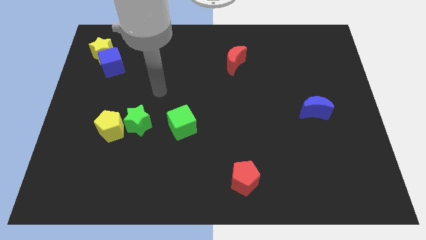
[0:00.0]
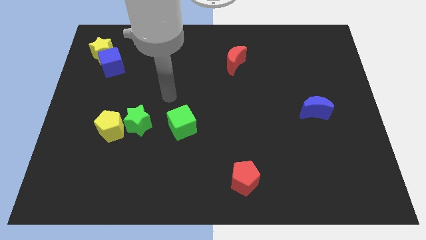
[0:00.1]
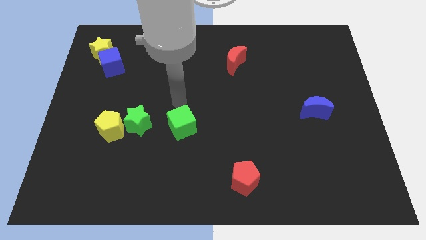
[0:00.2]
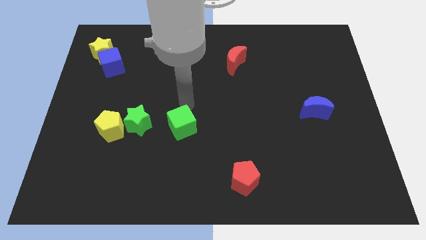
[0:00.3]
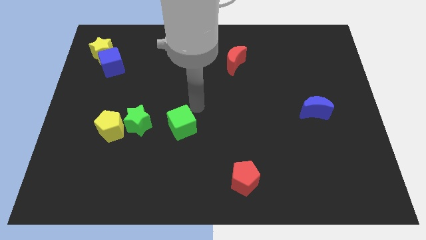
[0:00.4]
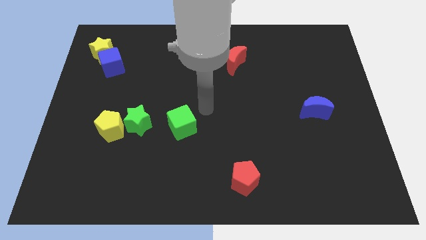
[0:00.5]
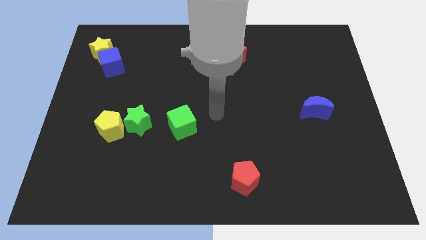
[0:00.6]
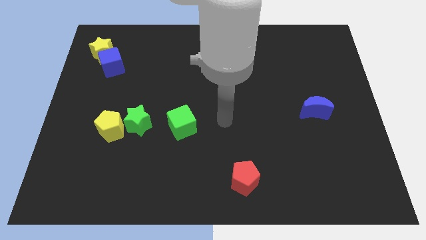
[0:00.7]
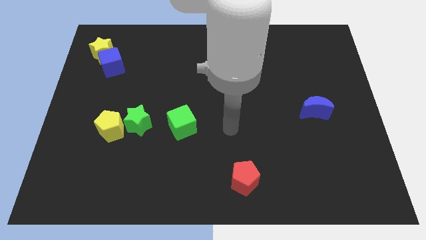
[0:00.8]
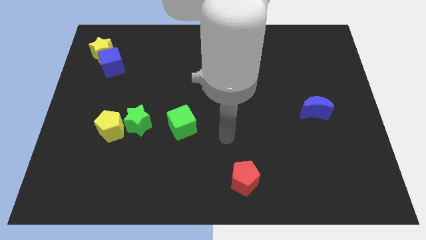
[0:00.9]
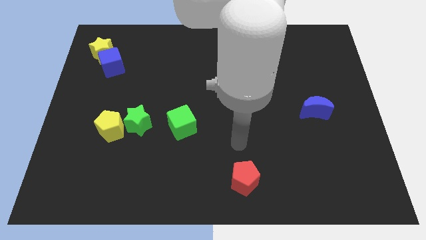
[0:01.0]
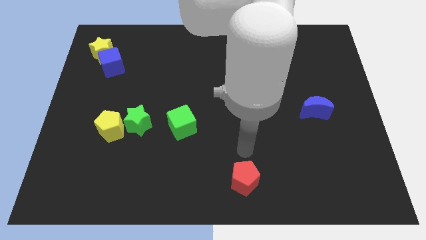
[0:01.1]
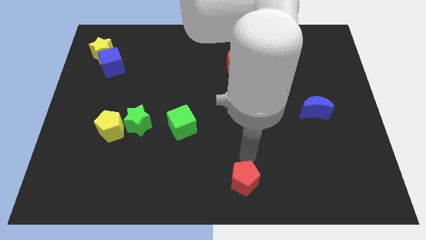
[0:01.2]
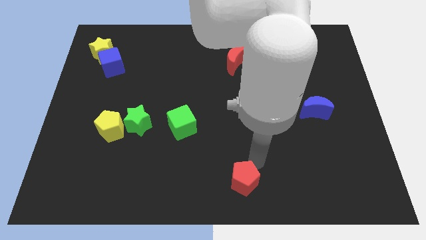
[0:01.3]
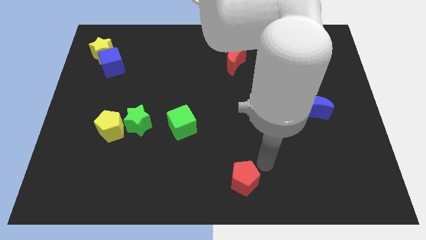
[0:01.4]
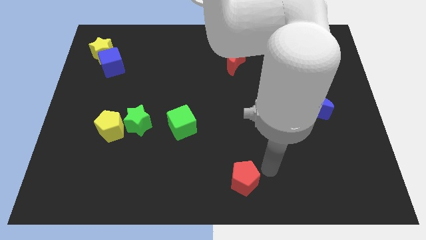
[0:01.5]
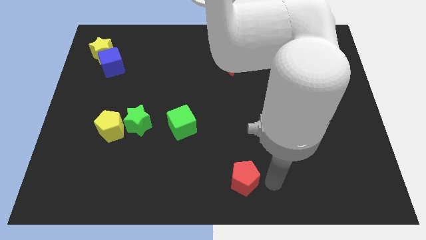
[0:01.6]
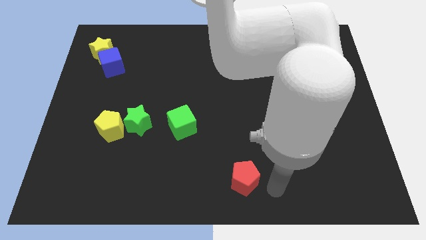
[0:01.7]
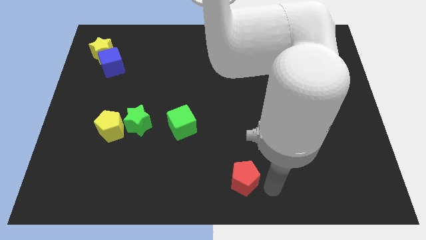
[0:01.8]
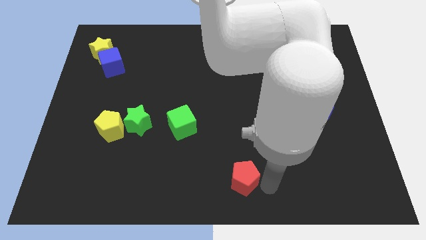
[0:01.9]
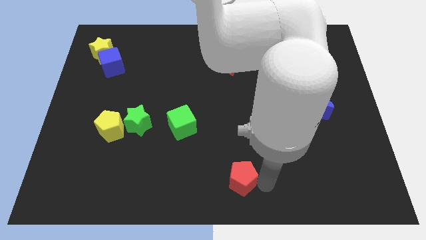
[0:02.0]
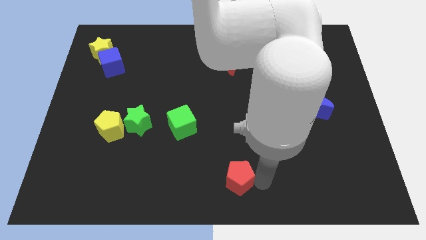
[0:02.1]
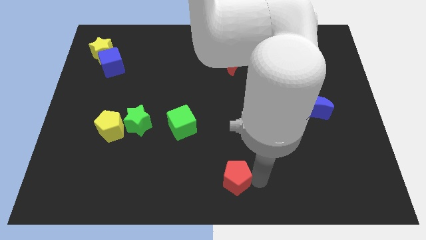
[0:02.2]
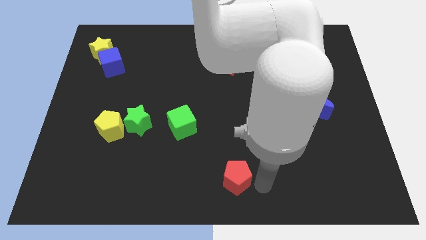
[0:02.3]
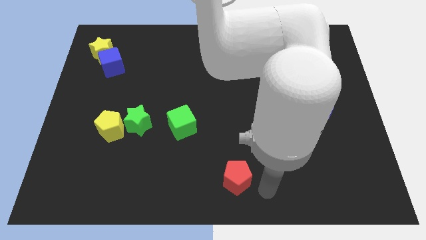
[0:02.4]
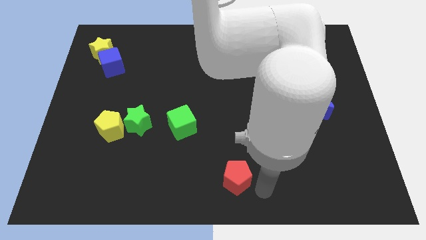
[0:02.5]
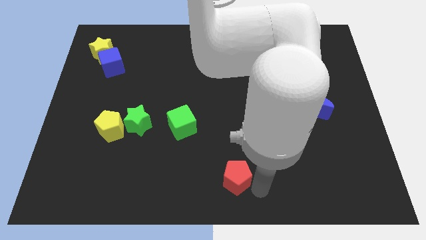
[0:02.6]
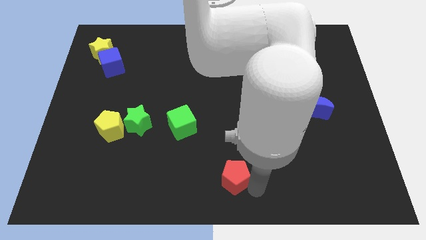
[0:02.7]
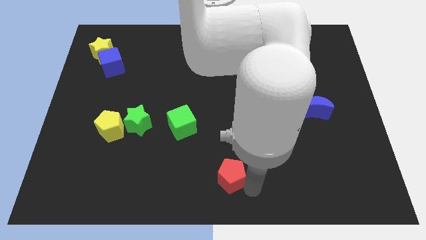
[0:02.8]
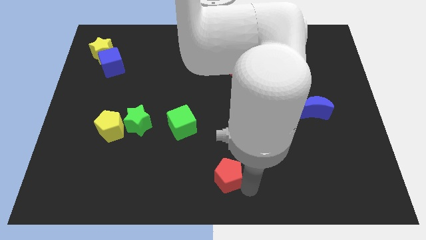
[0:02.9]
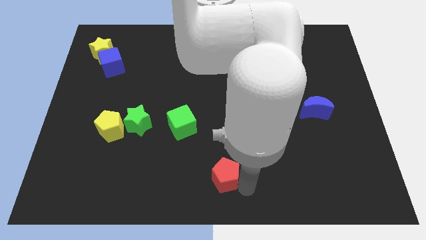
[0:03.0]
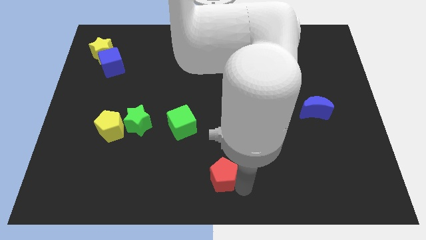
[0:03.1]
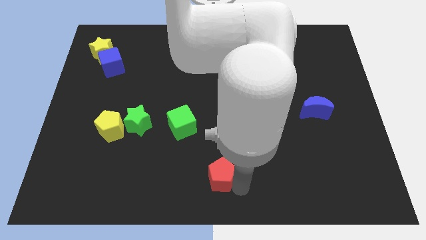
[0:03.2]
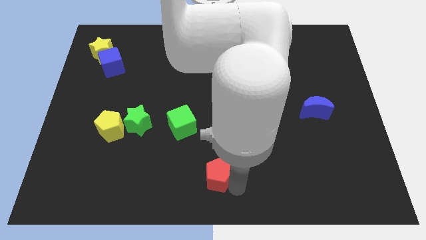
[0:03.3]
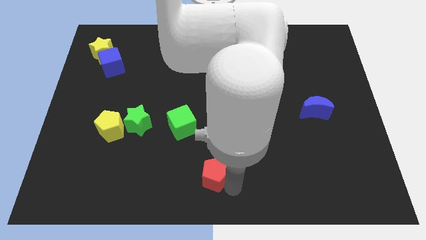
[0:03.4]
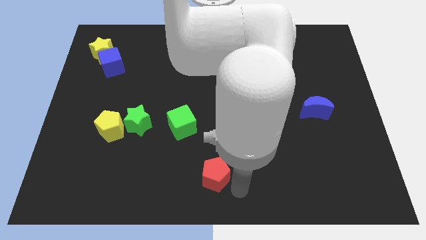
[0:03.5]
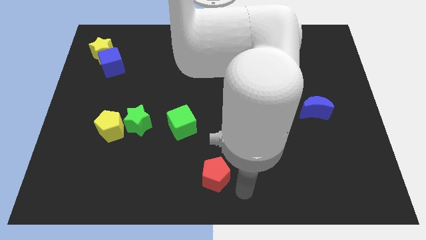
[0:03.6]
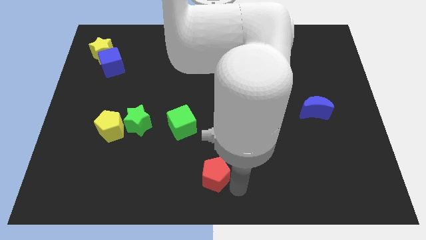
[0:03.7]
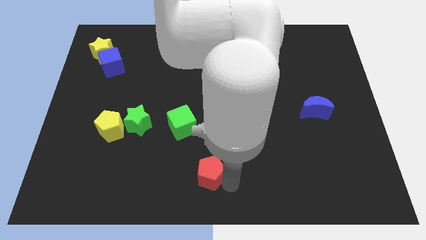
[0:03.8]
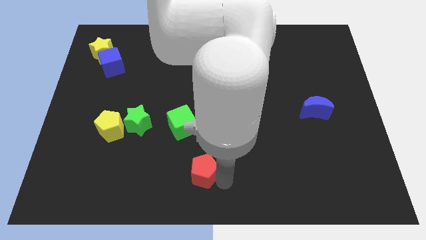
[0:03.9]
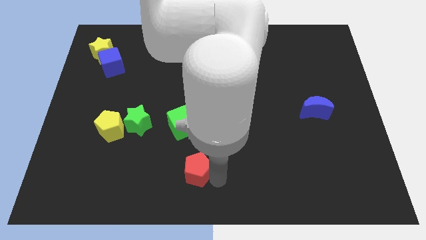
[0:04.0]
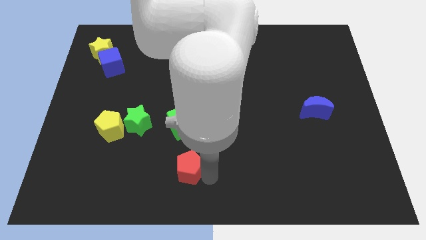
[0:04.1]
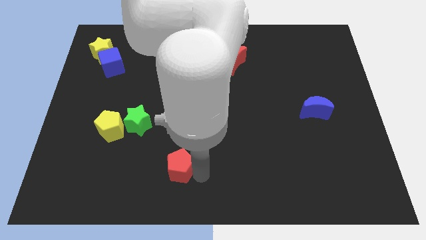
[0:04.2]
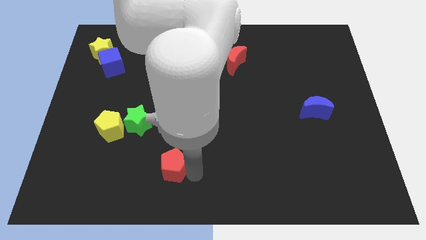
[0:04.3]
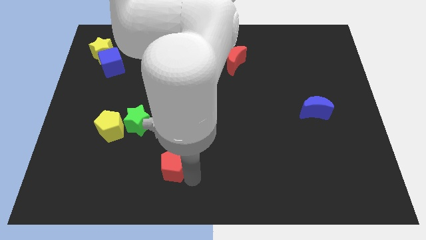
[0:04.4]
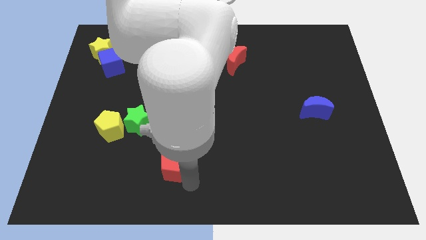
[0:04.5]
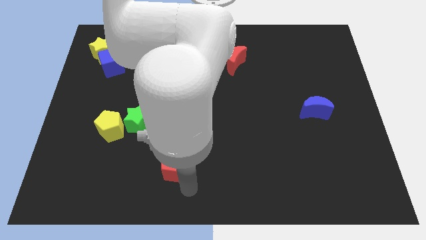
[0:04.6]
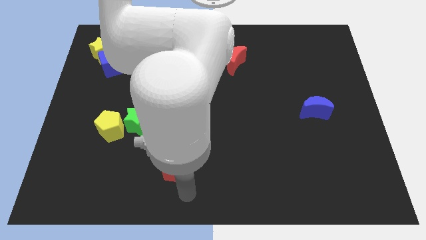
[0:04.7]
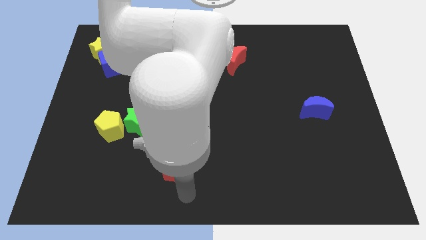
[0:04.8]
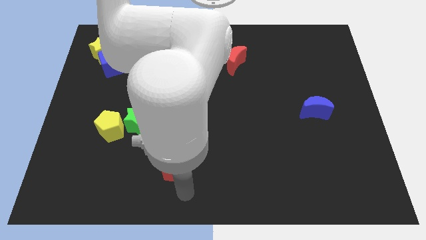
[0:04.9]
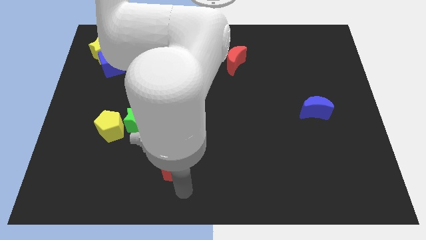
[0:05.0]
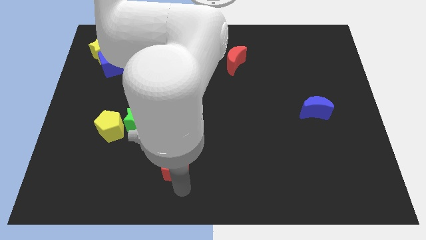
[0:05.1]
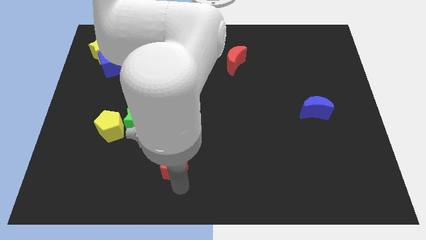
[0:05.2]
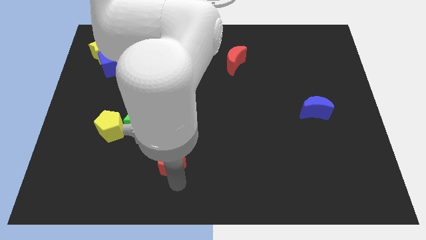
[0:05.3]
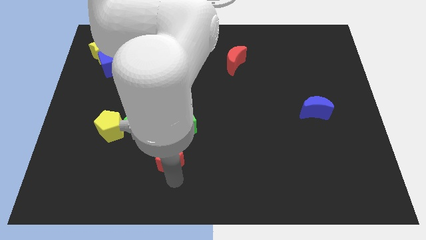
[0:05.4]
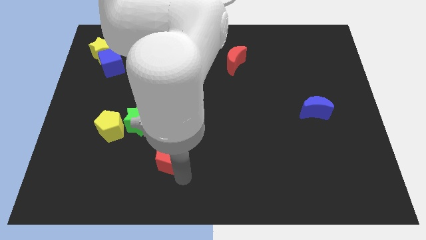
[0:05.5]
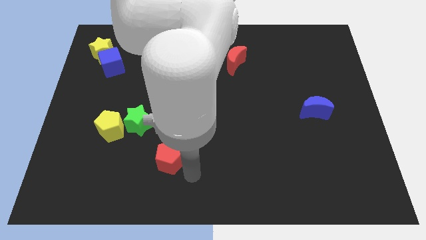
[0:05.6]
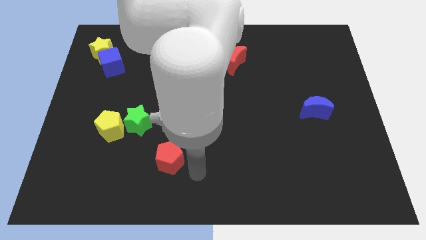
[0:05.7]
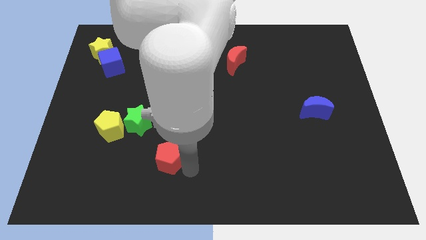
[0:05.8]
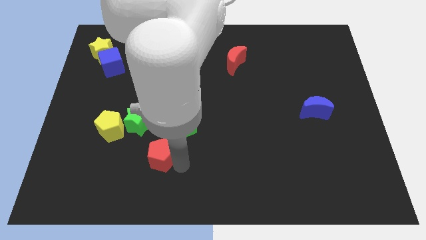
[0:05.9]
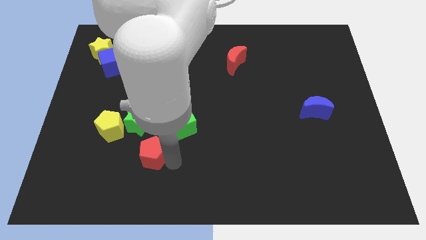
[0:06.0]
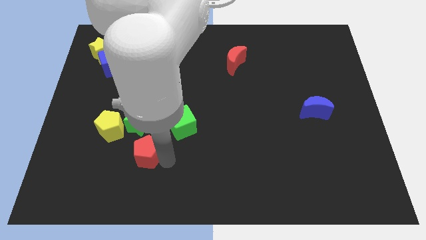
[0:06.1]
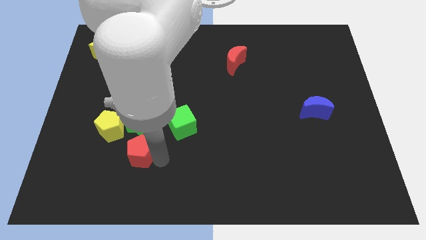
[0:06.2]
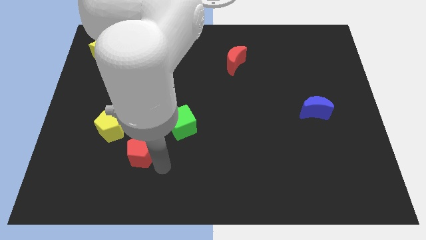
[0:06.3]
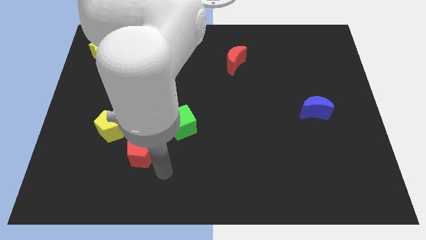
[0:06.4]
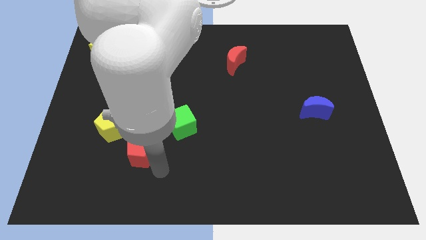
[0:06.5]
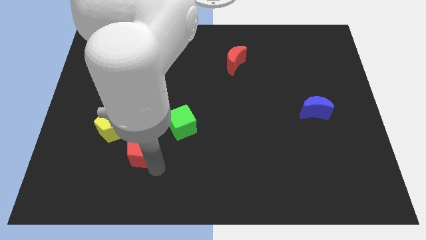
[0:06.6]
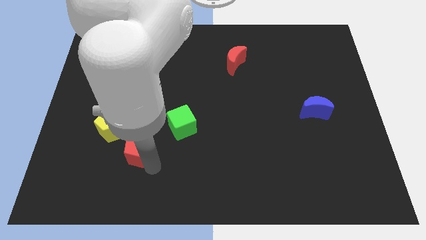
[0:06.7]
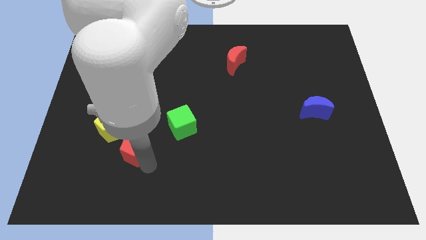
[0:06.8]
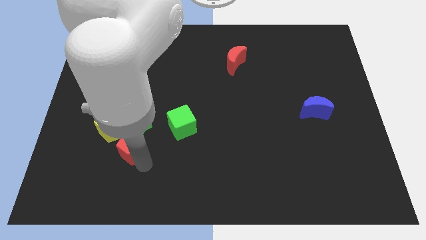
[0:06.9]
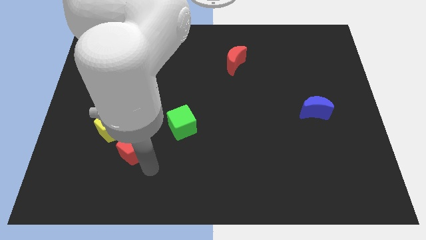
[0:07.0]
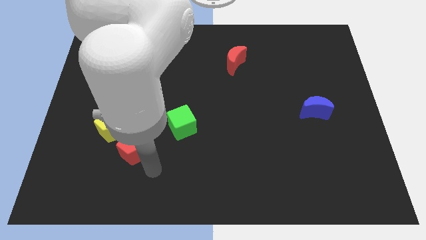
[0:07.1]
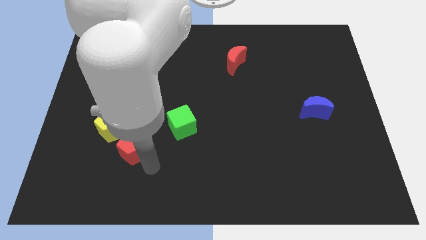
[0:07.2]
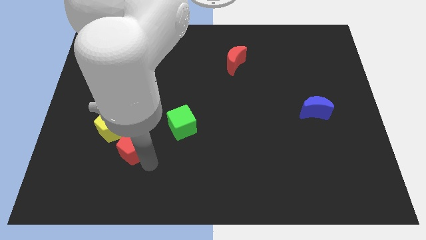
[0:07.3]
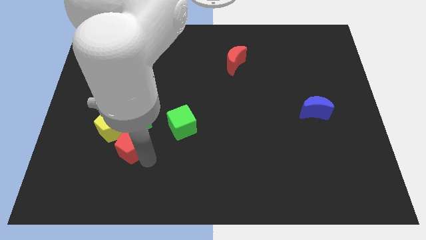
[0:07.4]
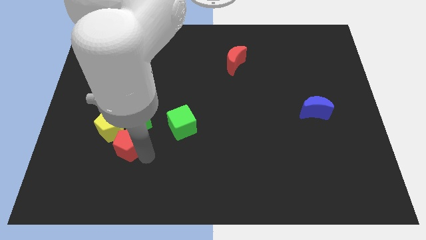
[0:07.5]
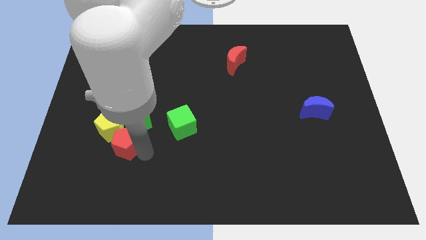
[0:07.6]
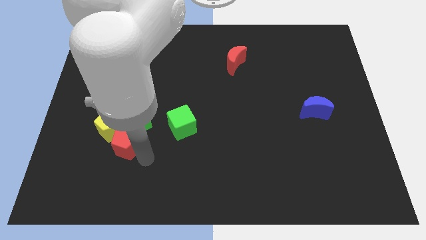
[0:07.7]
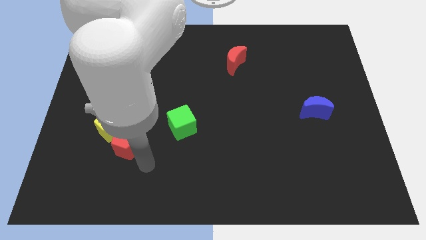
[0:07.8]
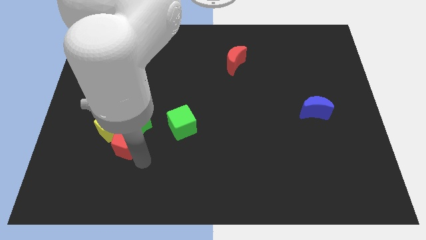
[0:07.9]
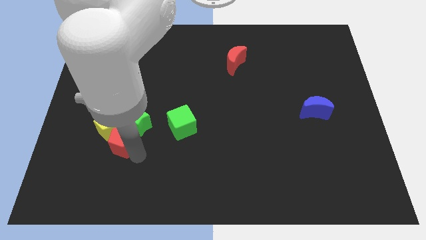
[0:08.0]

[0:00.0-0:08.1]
put the red pentagon next to the yellow pentagon
